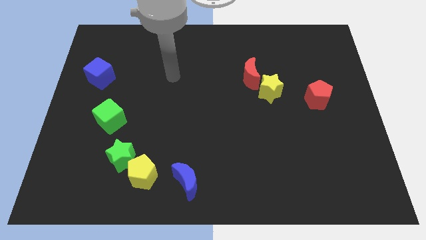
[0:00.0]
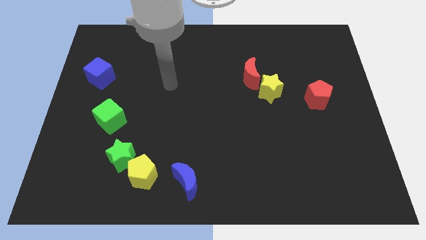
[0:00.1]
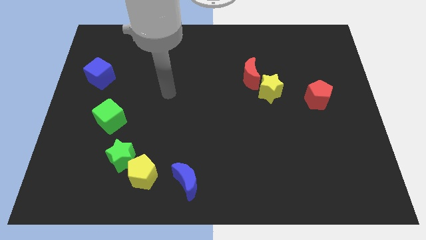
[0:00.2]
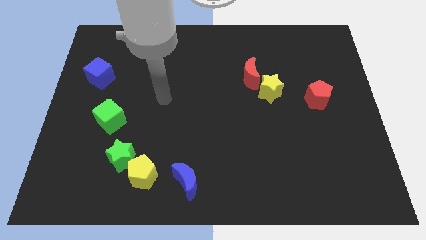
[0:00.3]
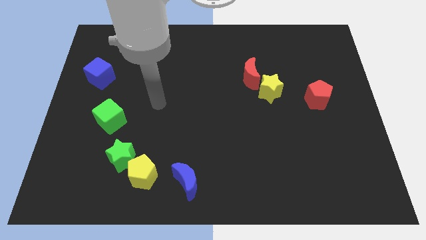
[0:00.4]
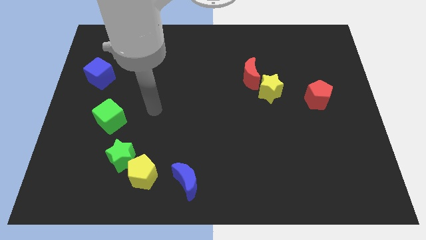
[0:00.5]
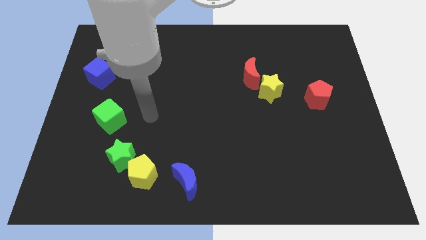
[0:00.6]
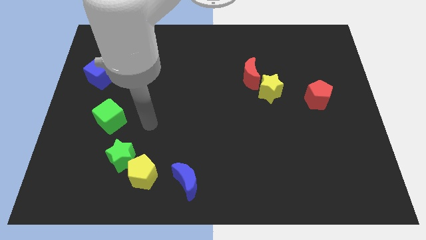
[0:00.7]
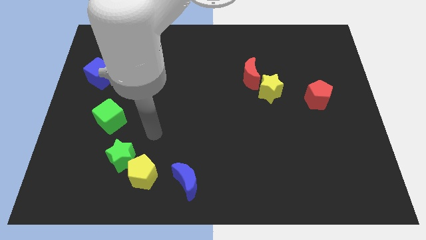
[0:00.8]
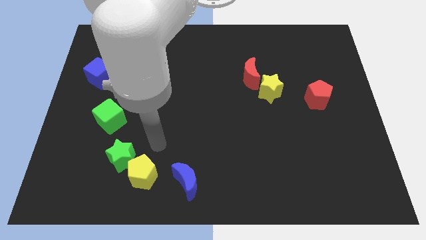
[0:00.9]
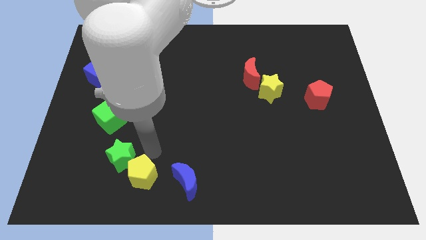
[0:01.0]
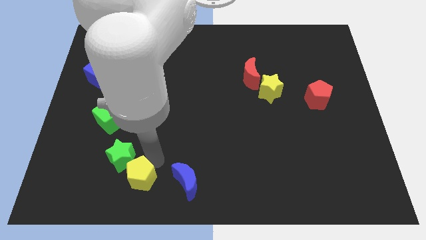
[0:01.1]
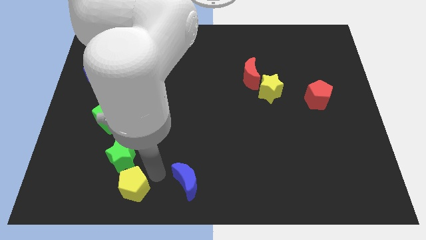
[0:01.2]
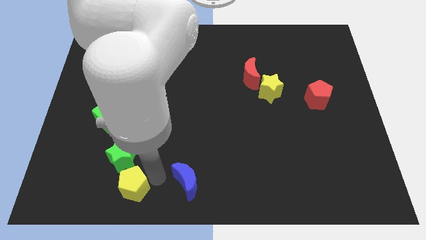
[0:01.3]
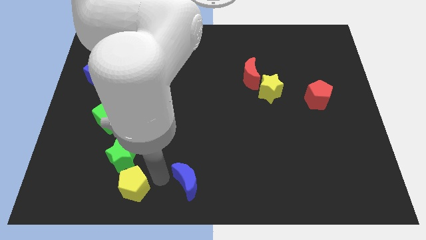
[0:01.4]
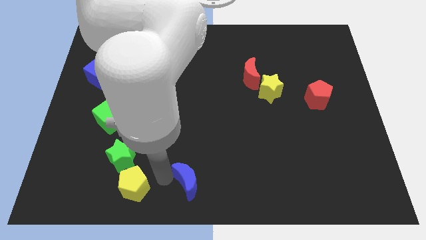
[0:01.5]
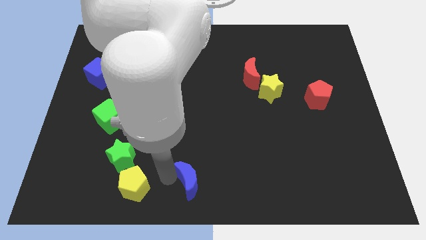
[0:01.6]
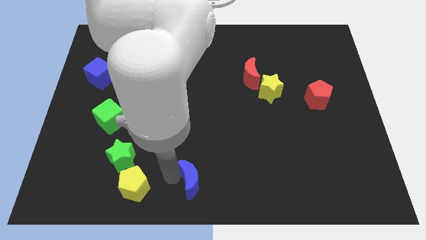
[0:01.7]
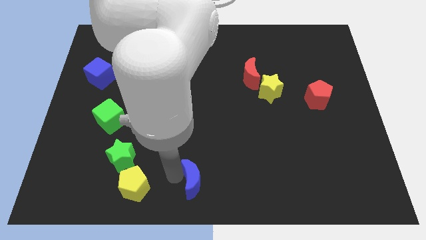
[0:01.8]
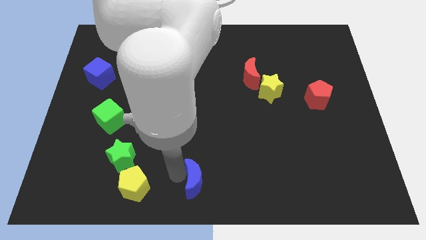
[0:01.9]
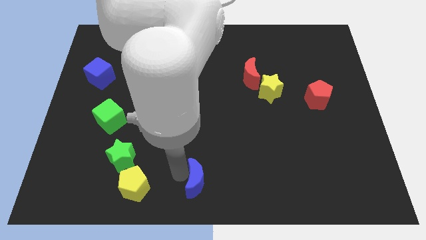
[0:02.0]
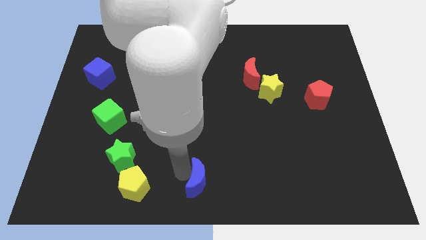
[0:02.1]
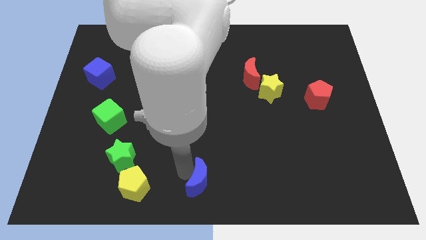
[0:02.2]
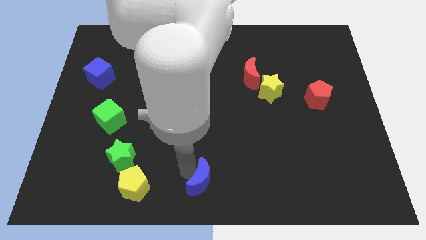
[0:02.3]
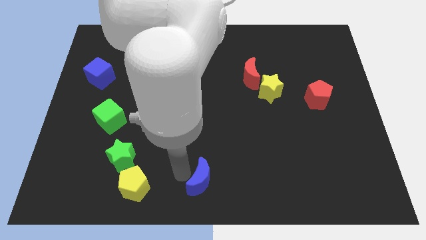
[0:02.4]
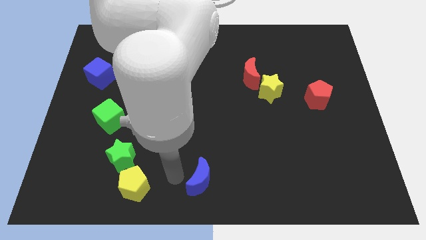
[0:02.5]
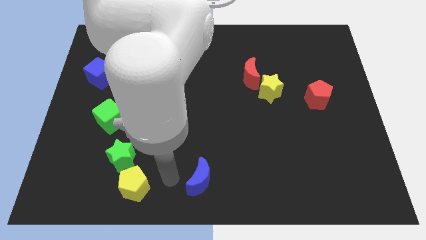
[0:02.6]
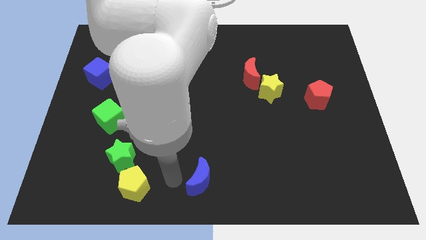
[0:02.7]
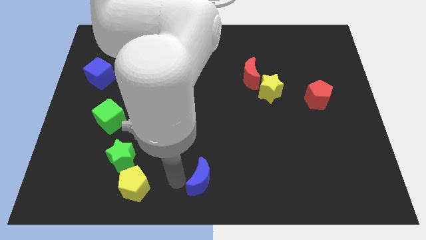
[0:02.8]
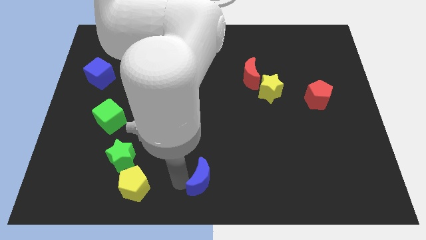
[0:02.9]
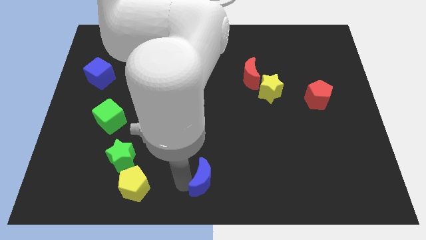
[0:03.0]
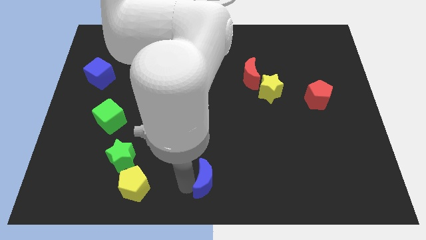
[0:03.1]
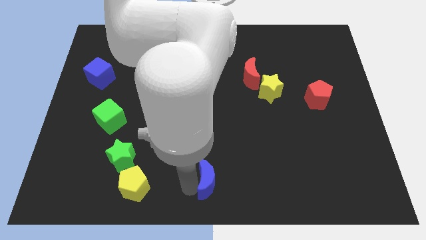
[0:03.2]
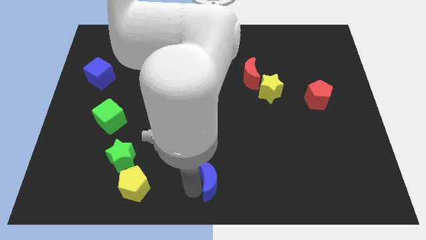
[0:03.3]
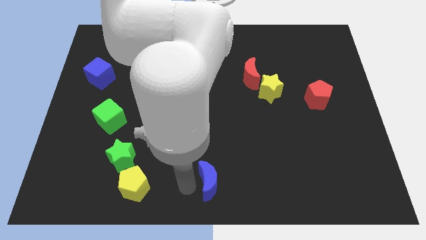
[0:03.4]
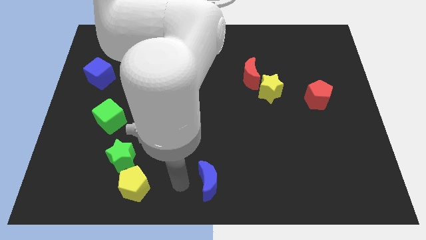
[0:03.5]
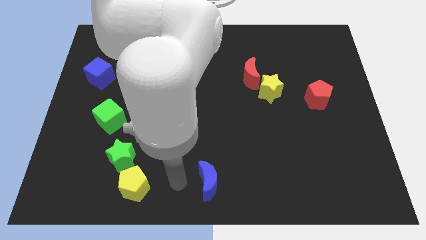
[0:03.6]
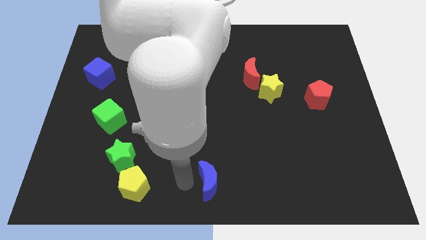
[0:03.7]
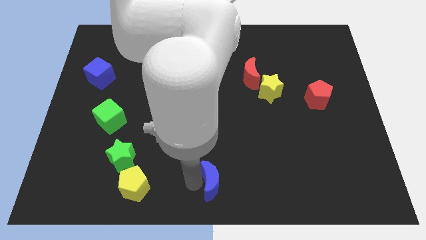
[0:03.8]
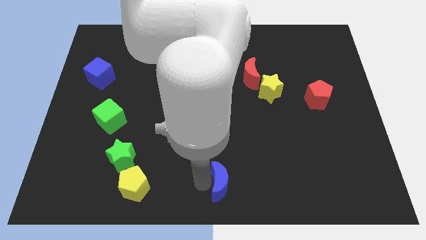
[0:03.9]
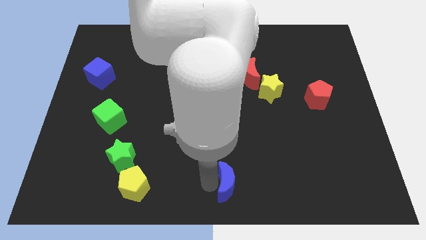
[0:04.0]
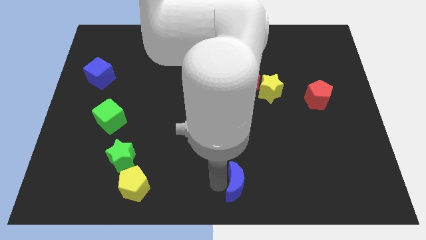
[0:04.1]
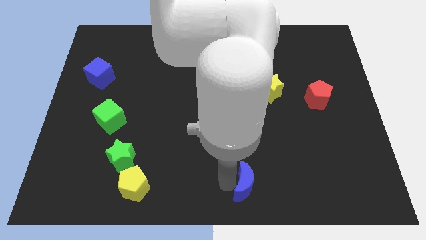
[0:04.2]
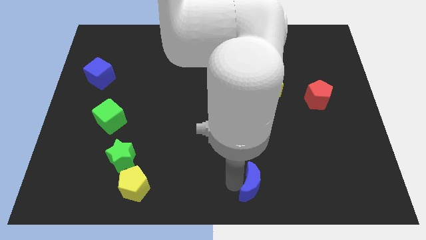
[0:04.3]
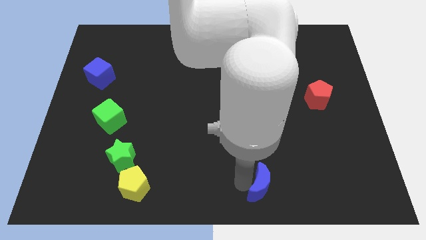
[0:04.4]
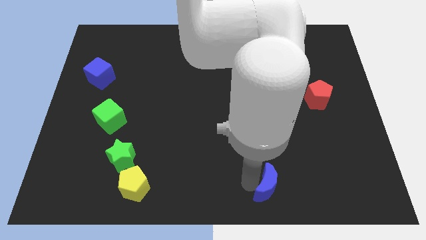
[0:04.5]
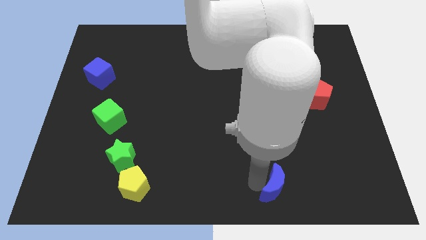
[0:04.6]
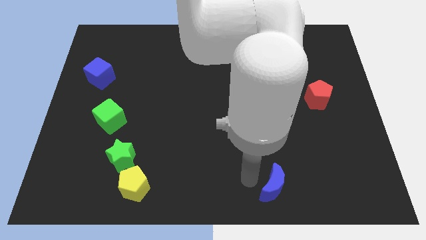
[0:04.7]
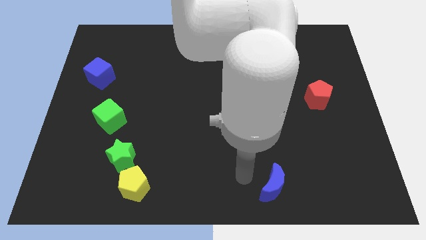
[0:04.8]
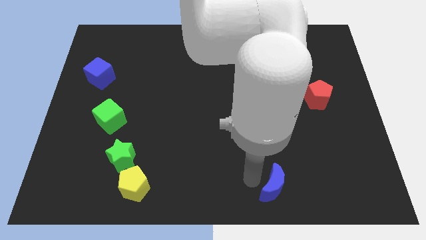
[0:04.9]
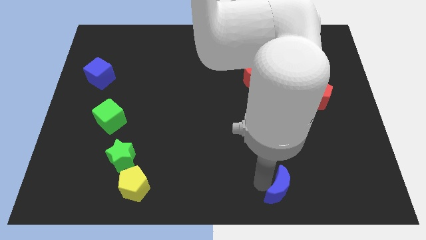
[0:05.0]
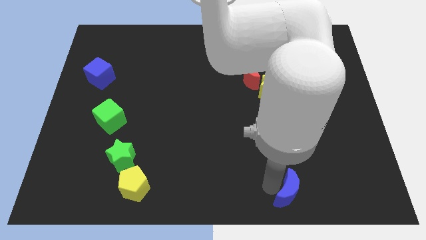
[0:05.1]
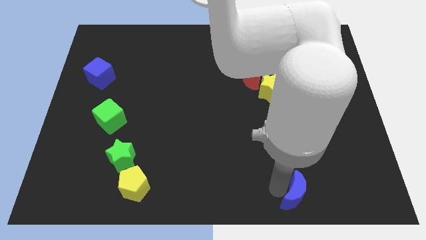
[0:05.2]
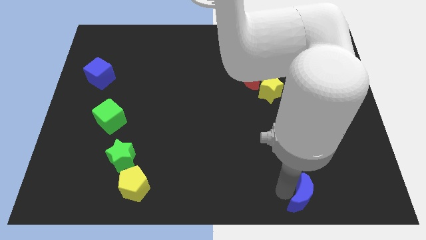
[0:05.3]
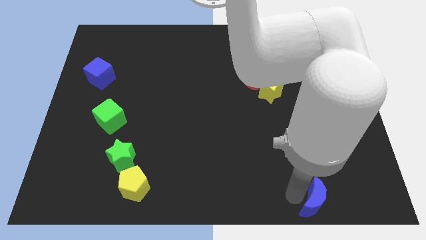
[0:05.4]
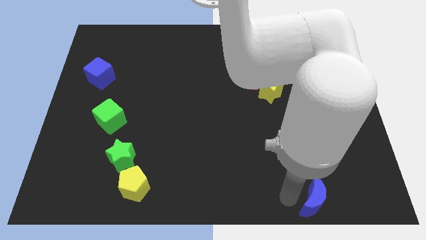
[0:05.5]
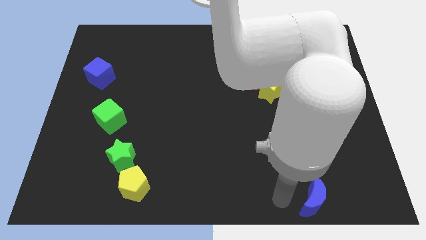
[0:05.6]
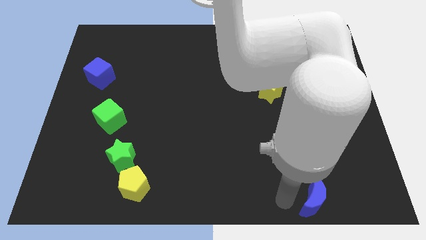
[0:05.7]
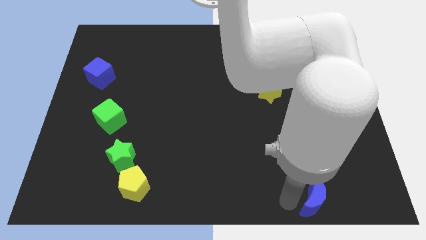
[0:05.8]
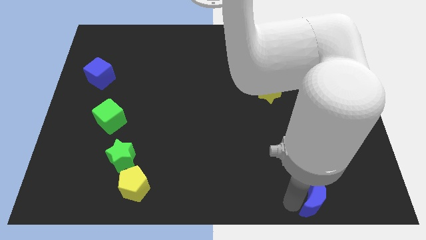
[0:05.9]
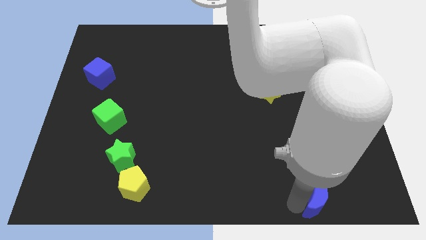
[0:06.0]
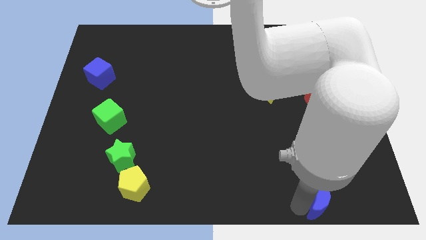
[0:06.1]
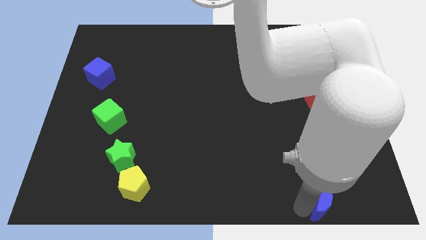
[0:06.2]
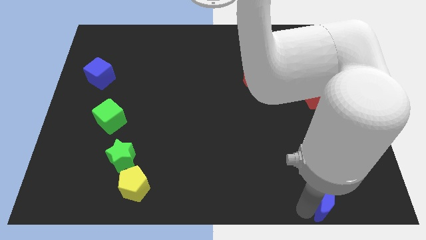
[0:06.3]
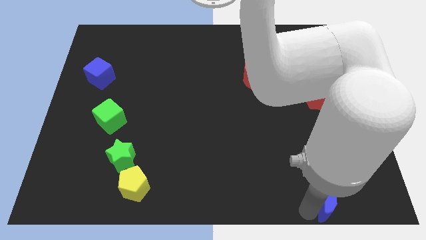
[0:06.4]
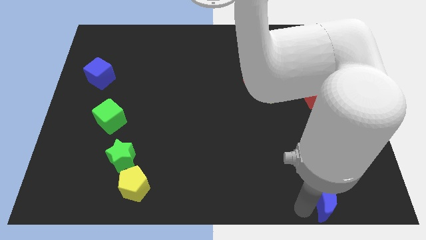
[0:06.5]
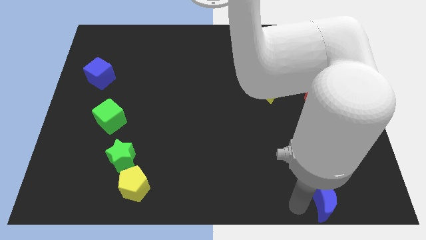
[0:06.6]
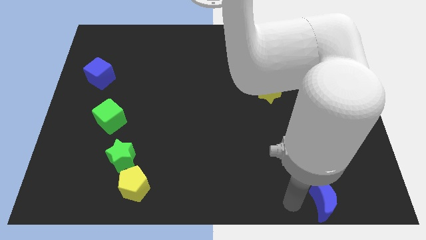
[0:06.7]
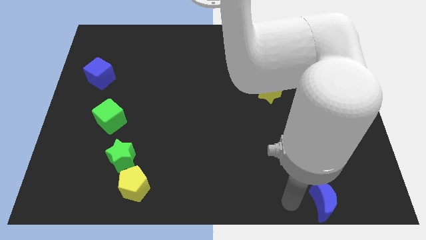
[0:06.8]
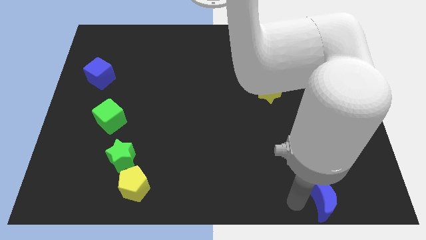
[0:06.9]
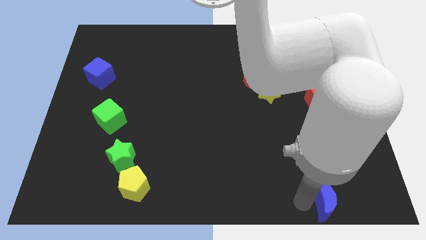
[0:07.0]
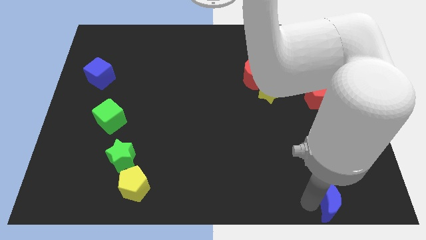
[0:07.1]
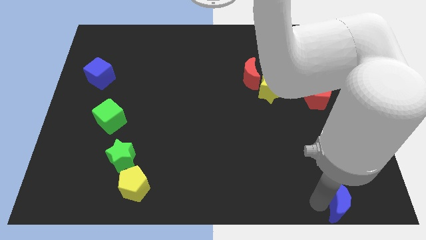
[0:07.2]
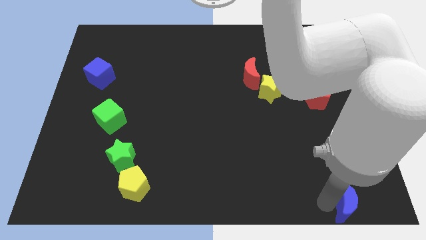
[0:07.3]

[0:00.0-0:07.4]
push the blue moon to the bottom right
